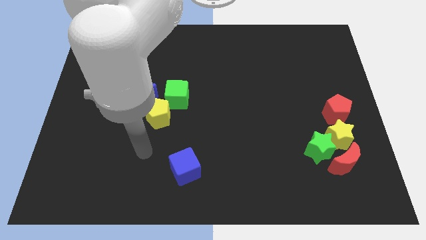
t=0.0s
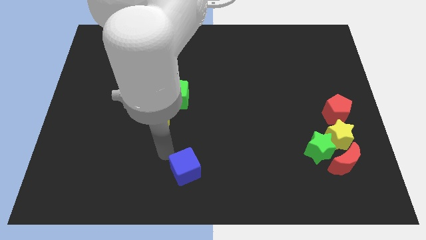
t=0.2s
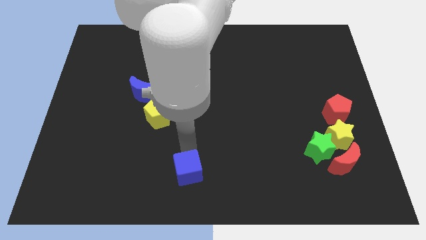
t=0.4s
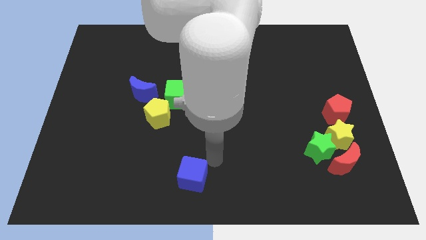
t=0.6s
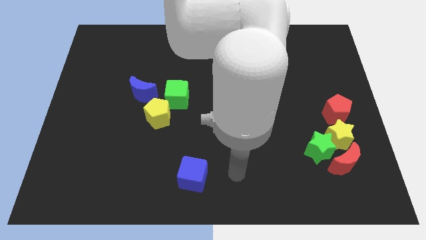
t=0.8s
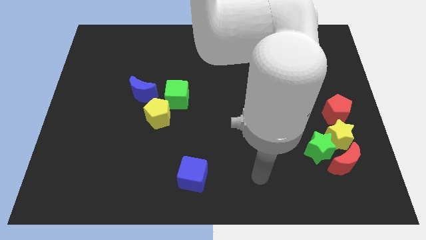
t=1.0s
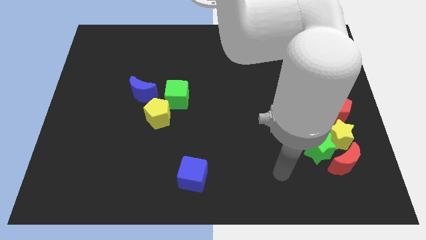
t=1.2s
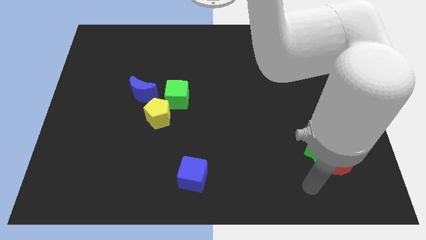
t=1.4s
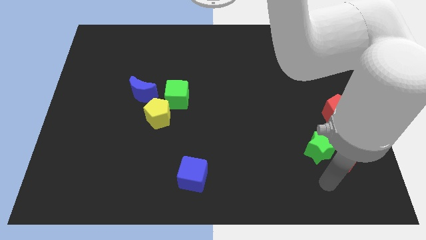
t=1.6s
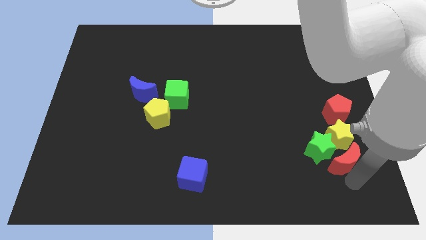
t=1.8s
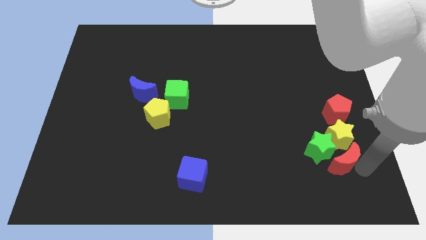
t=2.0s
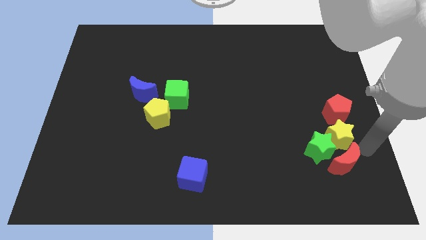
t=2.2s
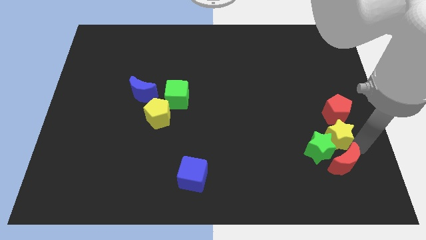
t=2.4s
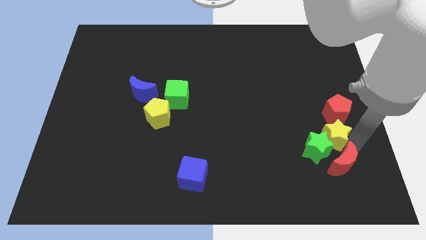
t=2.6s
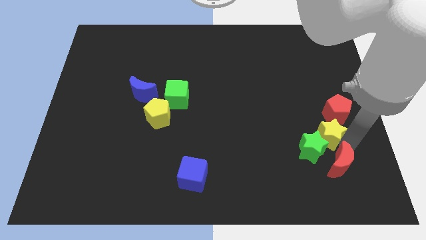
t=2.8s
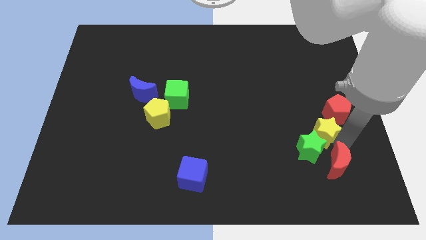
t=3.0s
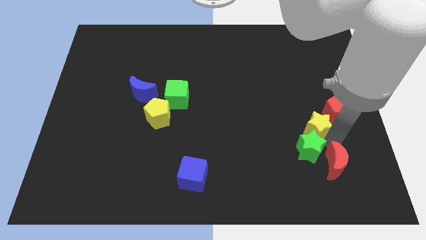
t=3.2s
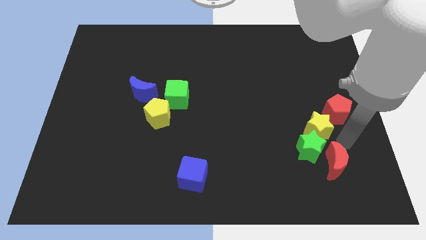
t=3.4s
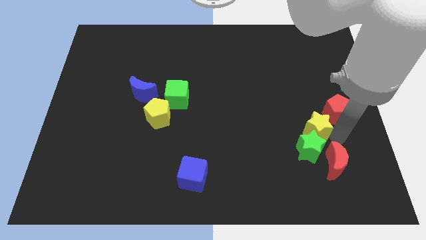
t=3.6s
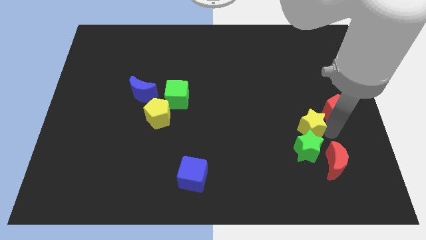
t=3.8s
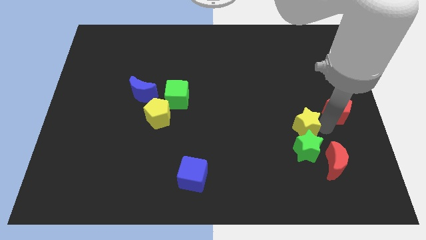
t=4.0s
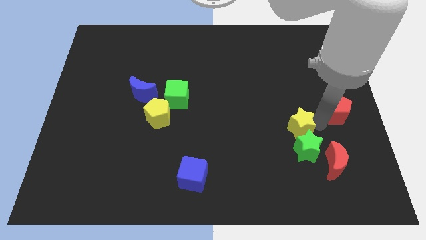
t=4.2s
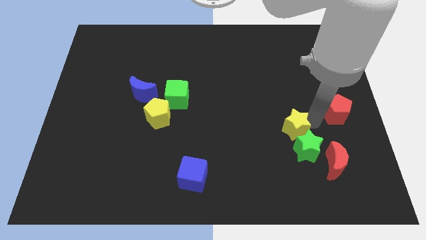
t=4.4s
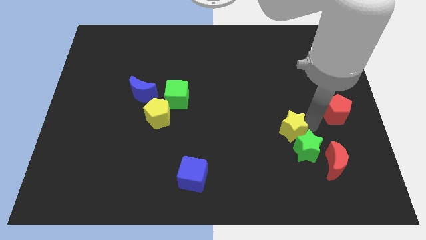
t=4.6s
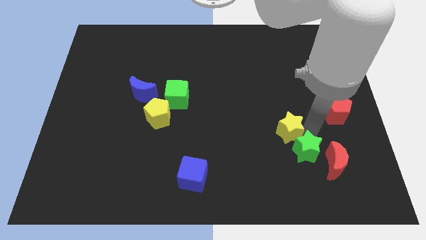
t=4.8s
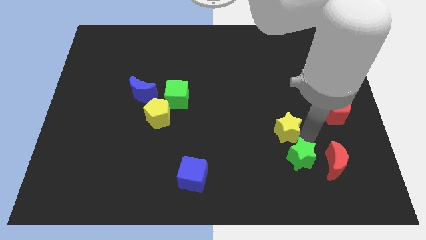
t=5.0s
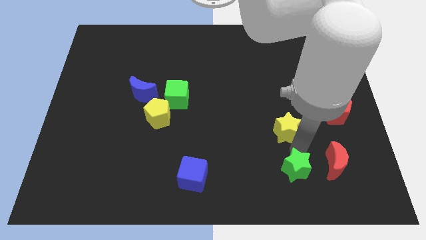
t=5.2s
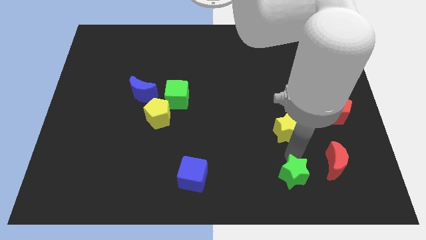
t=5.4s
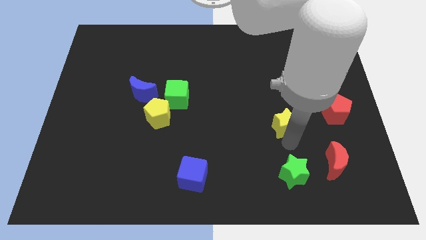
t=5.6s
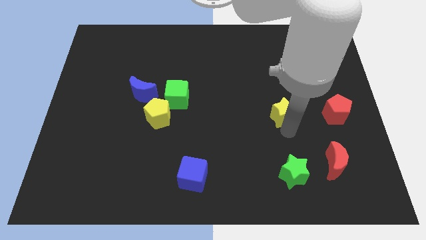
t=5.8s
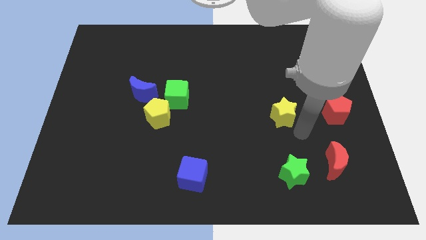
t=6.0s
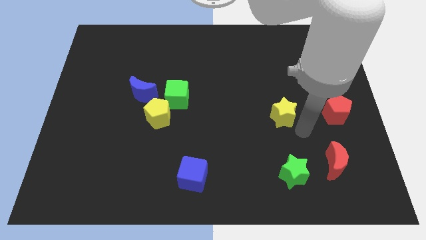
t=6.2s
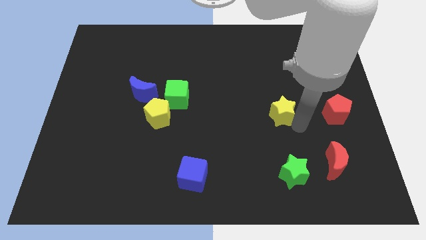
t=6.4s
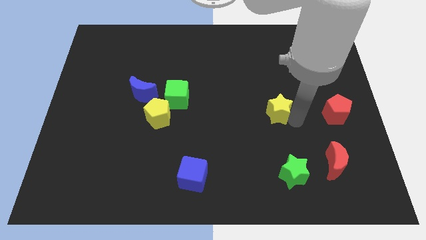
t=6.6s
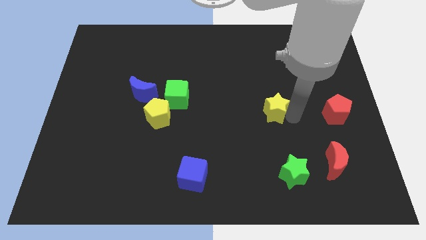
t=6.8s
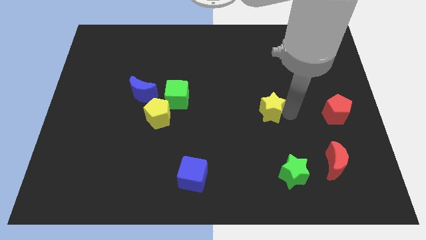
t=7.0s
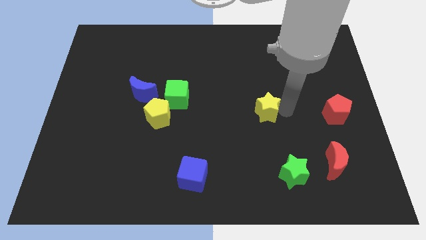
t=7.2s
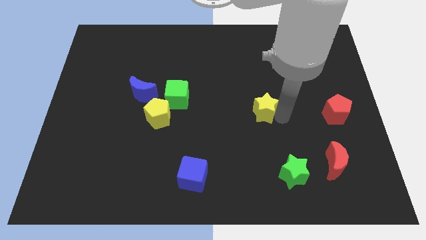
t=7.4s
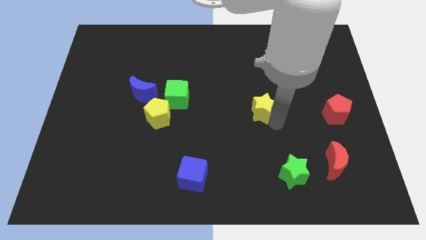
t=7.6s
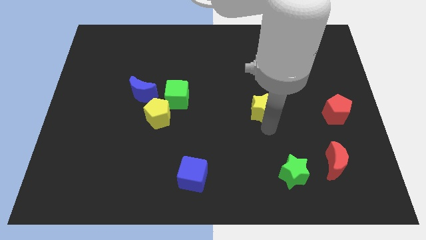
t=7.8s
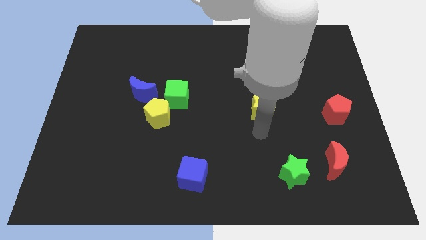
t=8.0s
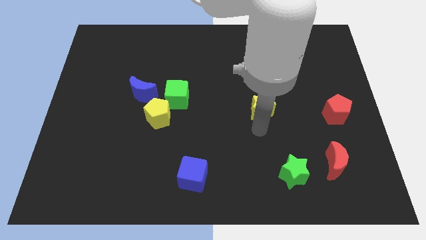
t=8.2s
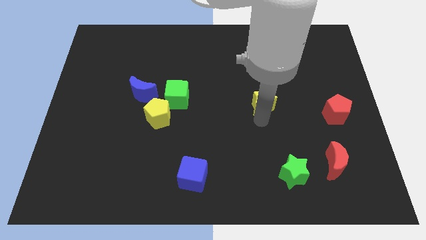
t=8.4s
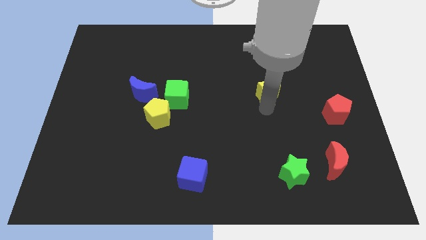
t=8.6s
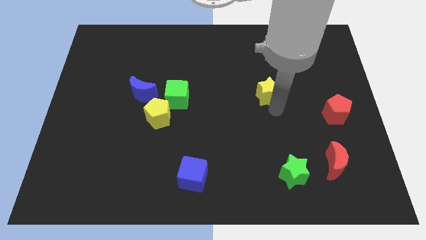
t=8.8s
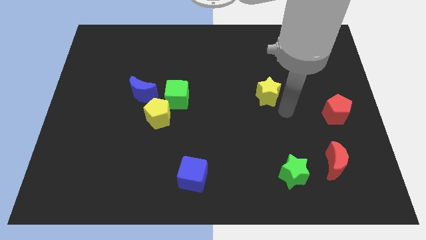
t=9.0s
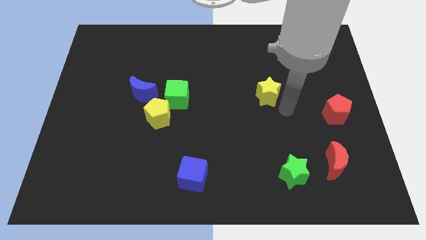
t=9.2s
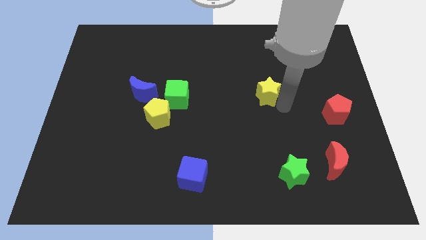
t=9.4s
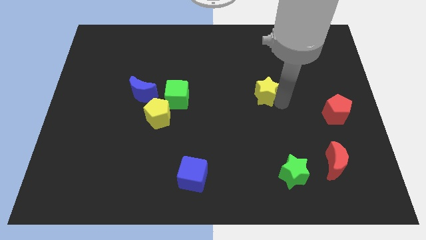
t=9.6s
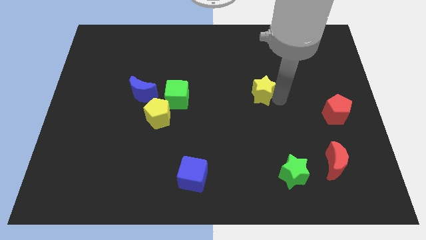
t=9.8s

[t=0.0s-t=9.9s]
push the yellow star upwards and then left

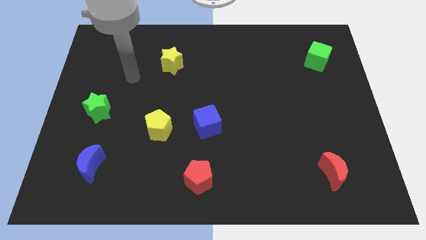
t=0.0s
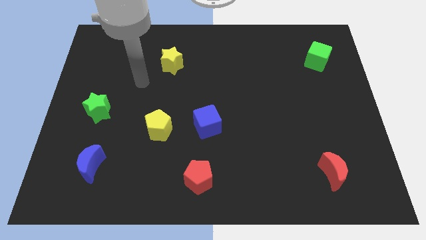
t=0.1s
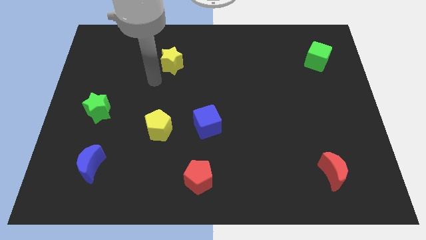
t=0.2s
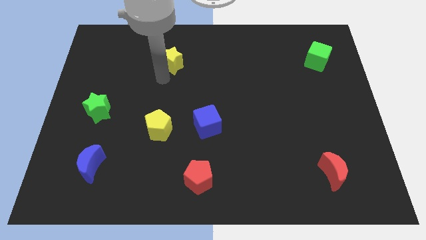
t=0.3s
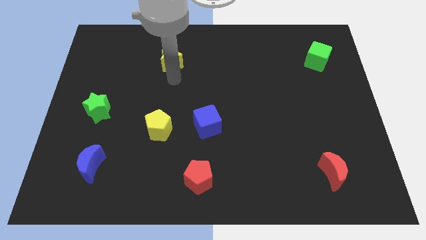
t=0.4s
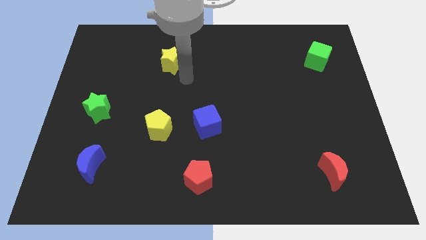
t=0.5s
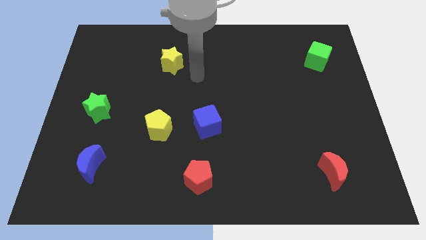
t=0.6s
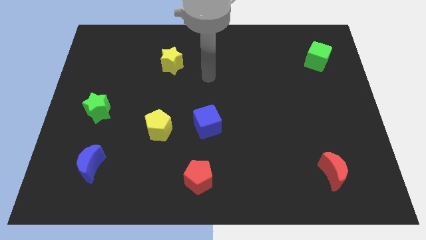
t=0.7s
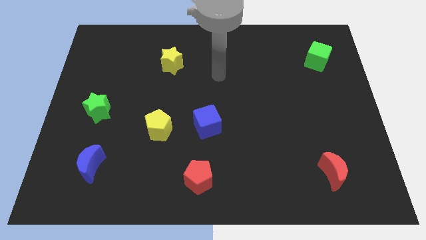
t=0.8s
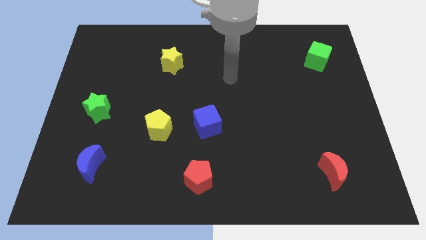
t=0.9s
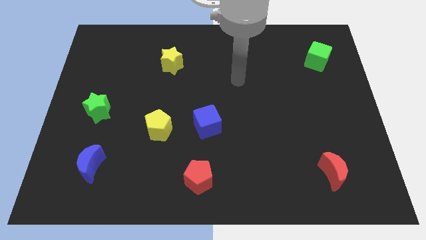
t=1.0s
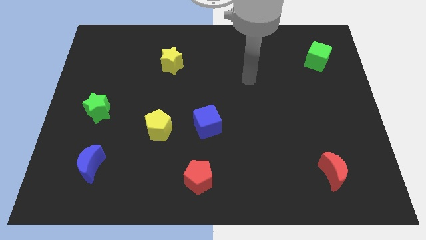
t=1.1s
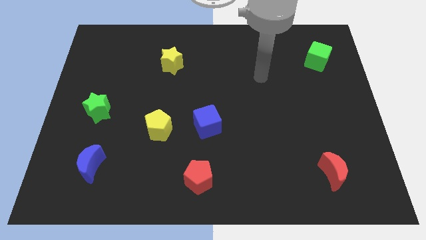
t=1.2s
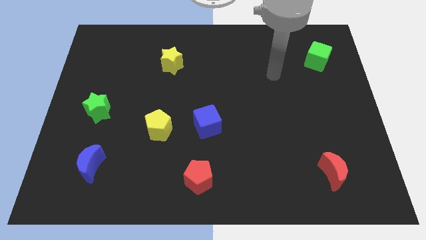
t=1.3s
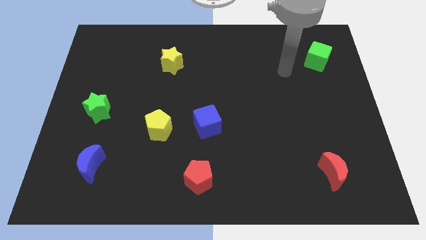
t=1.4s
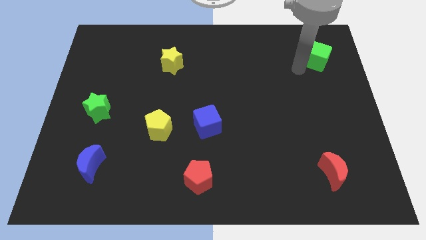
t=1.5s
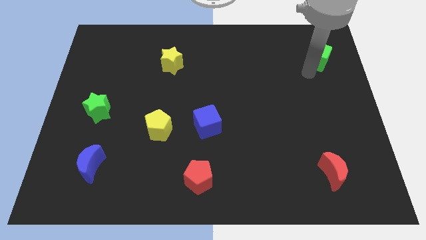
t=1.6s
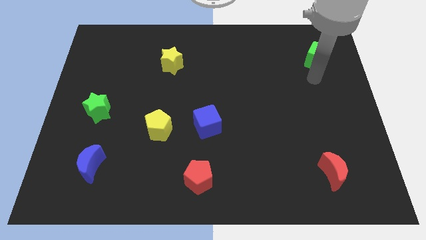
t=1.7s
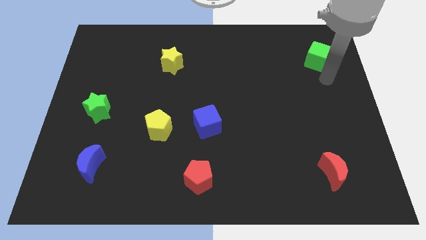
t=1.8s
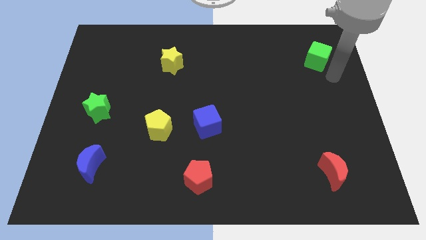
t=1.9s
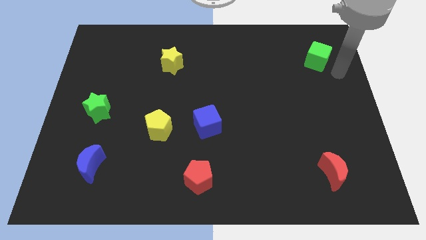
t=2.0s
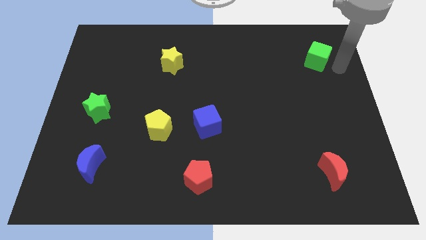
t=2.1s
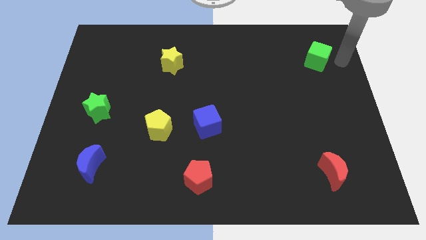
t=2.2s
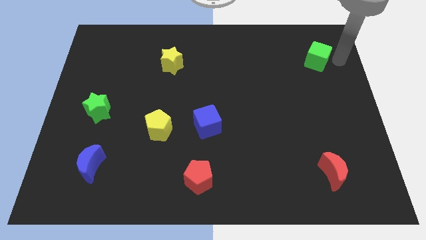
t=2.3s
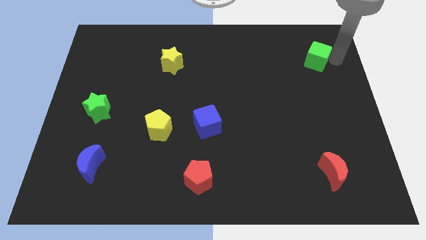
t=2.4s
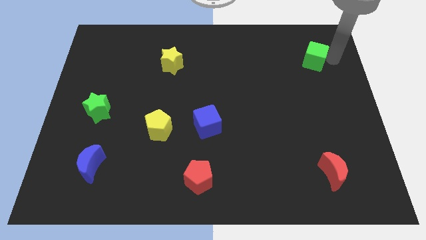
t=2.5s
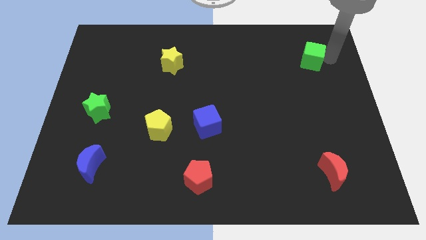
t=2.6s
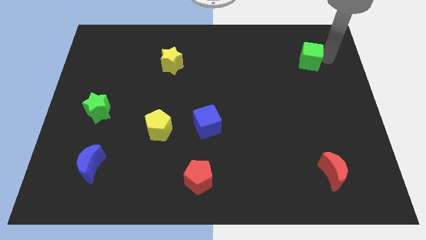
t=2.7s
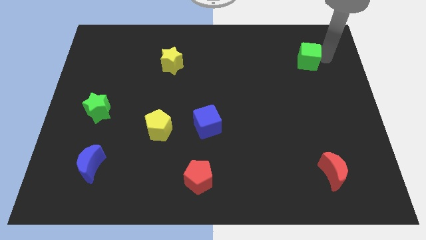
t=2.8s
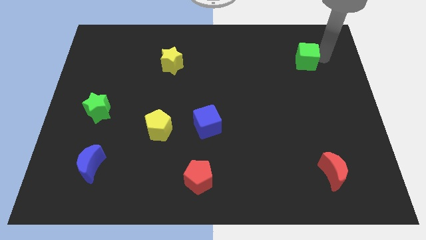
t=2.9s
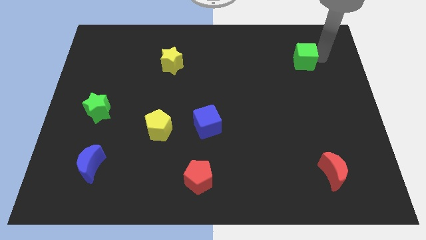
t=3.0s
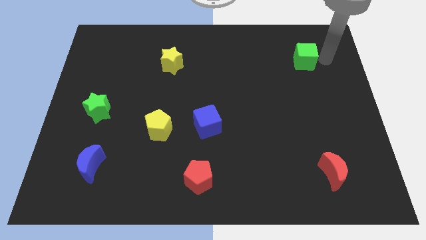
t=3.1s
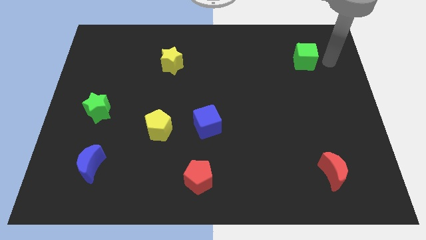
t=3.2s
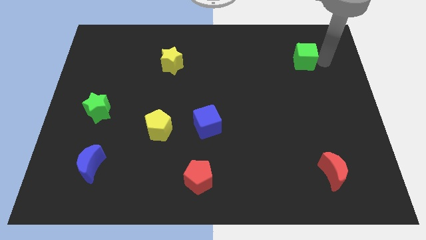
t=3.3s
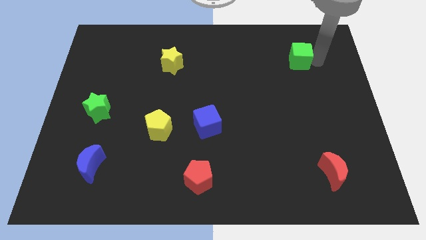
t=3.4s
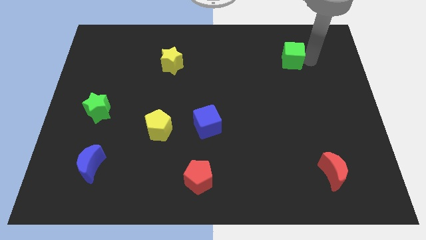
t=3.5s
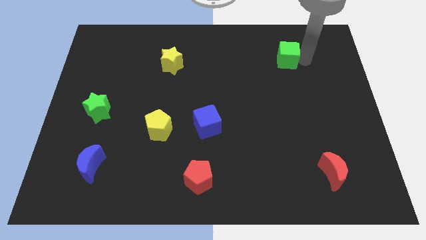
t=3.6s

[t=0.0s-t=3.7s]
push the green cube left somewhat
